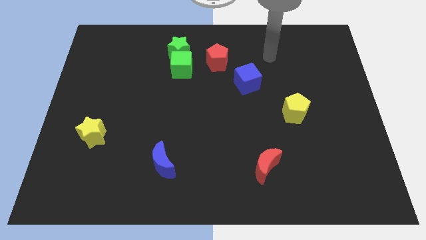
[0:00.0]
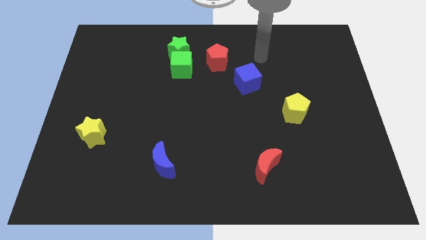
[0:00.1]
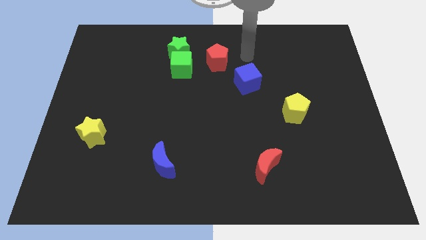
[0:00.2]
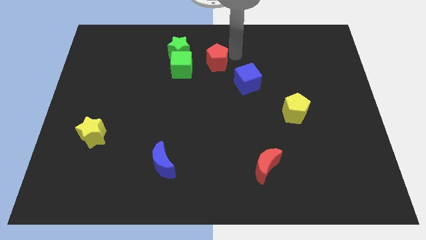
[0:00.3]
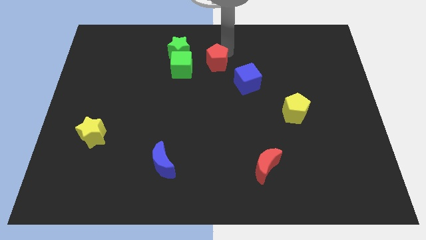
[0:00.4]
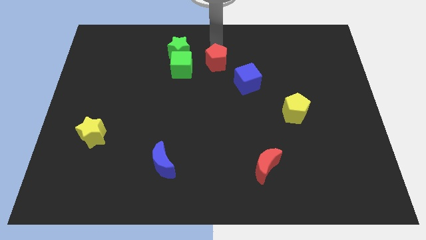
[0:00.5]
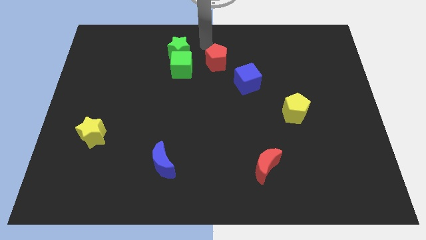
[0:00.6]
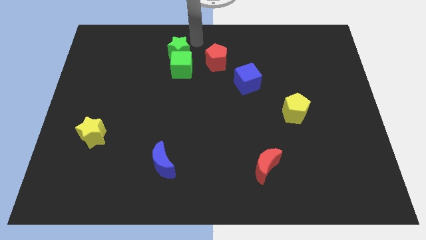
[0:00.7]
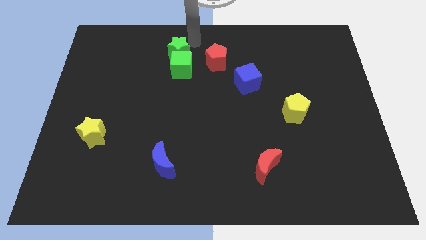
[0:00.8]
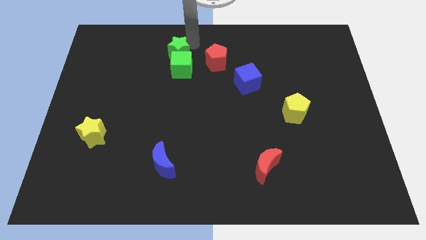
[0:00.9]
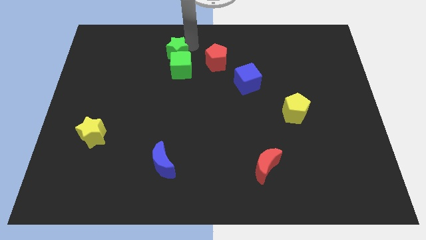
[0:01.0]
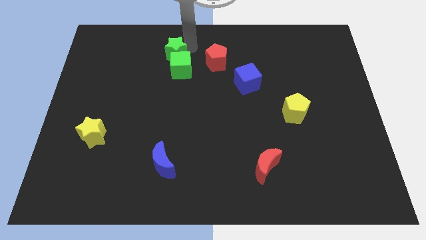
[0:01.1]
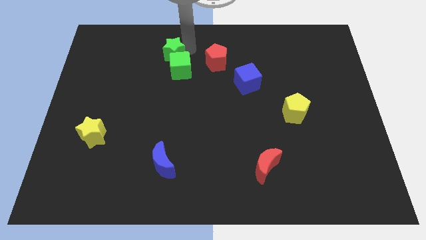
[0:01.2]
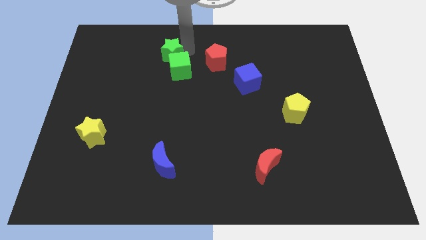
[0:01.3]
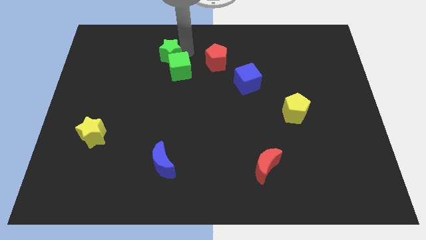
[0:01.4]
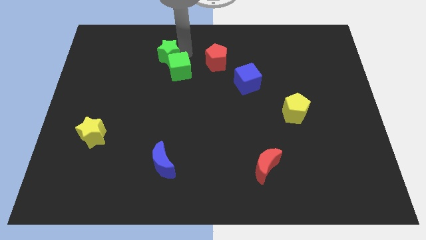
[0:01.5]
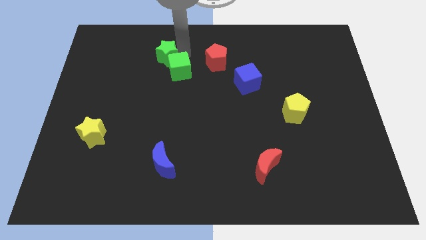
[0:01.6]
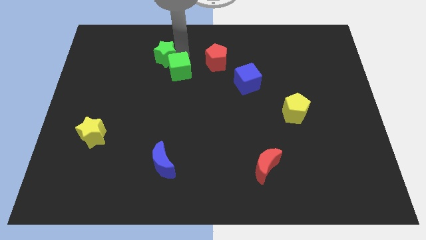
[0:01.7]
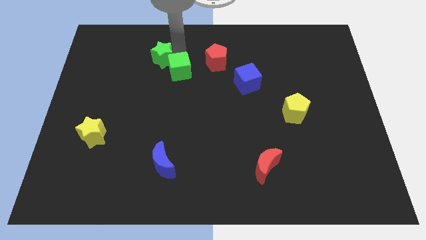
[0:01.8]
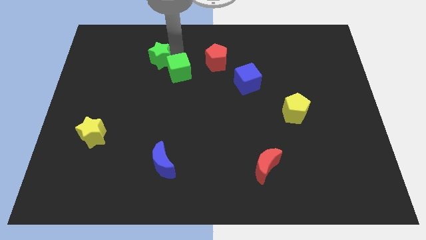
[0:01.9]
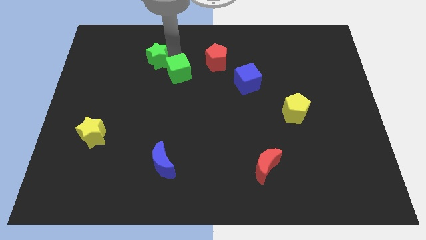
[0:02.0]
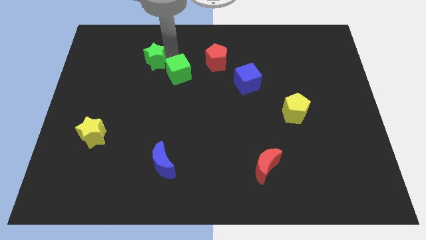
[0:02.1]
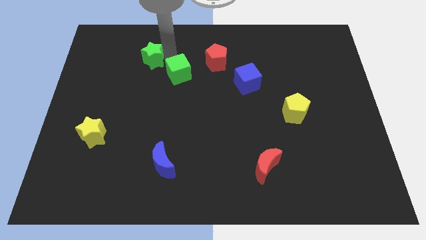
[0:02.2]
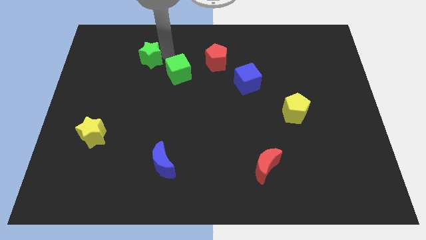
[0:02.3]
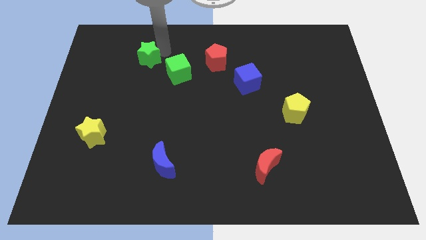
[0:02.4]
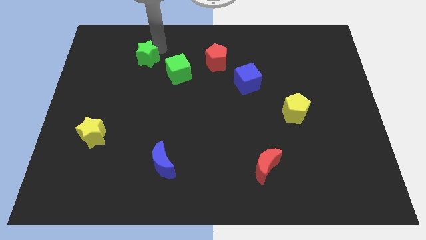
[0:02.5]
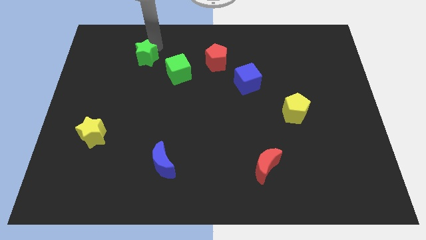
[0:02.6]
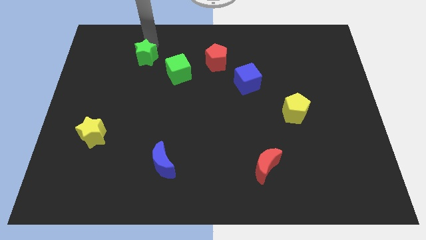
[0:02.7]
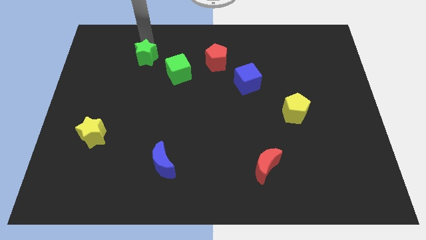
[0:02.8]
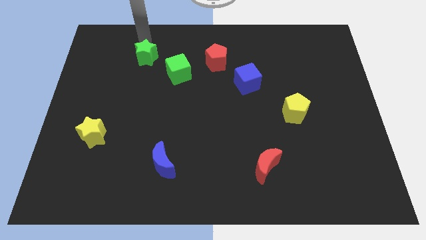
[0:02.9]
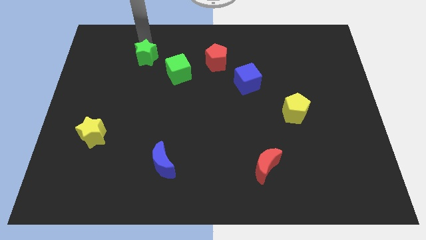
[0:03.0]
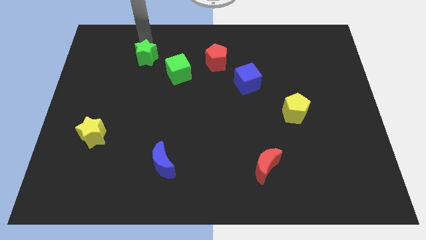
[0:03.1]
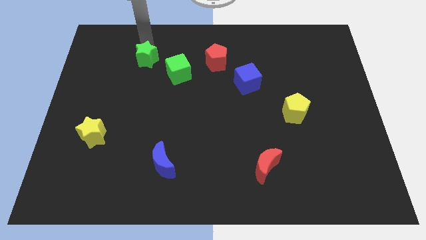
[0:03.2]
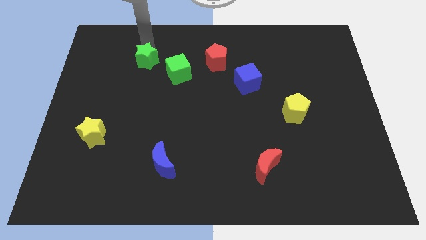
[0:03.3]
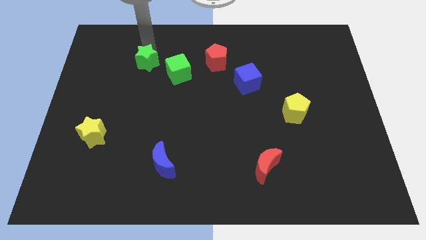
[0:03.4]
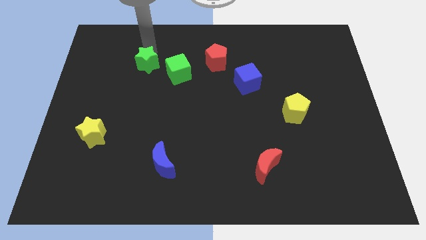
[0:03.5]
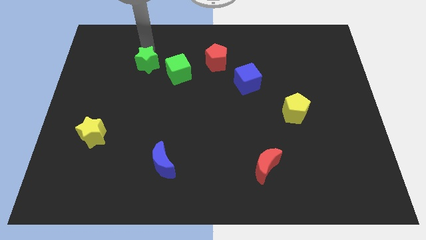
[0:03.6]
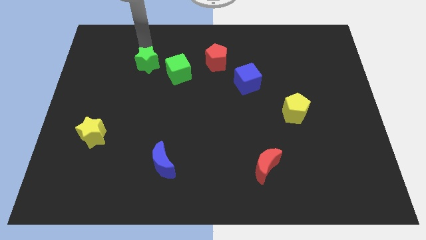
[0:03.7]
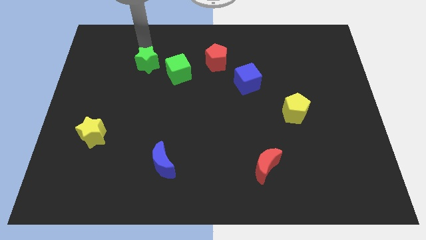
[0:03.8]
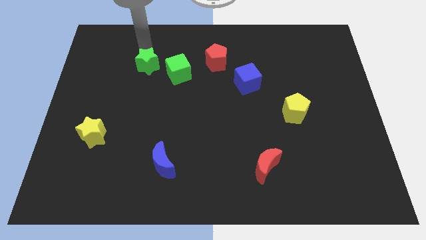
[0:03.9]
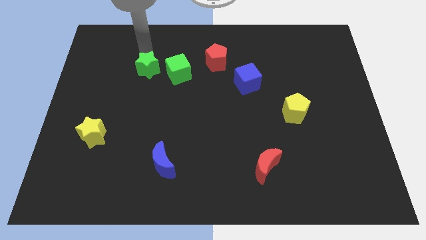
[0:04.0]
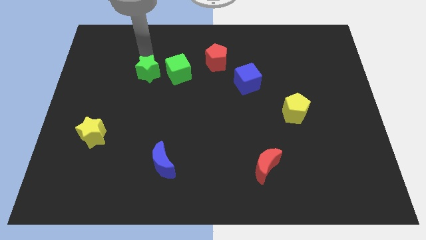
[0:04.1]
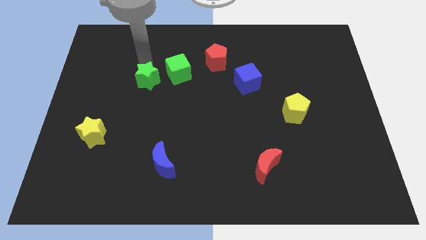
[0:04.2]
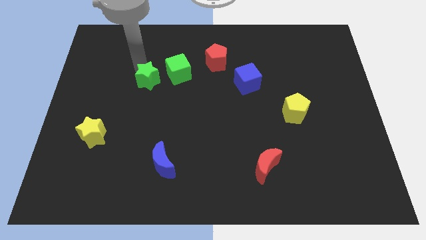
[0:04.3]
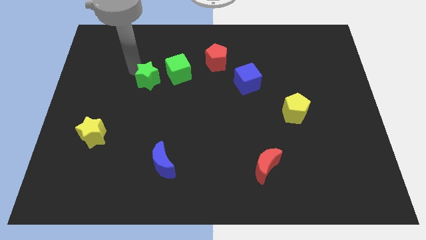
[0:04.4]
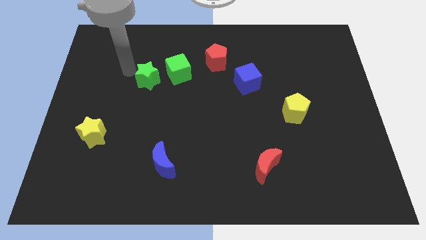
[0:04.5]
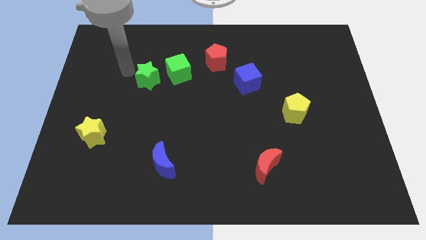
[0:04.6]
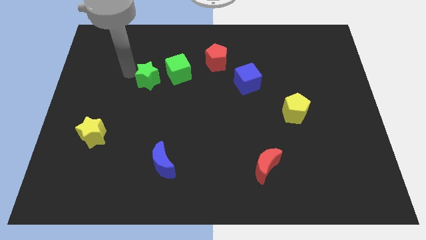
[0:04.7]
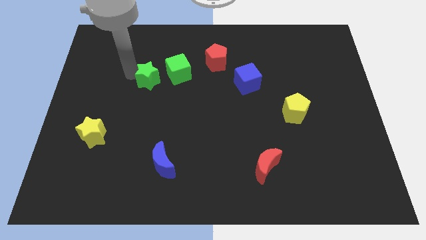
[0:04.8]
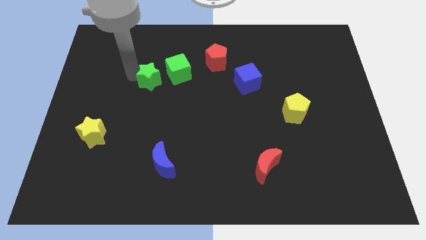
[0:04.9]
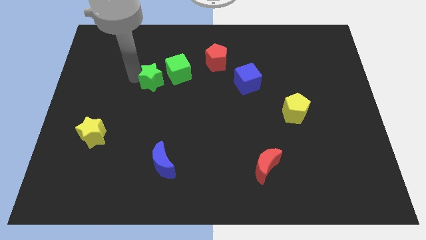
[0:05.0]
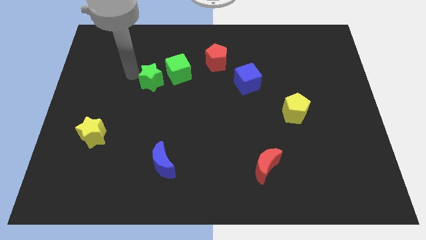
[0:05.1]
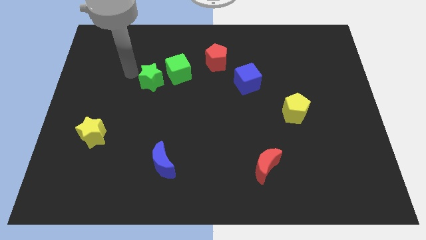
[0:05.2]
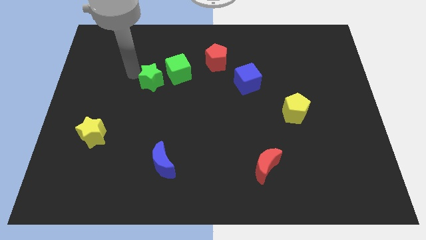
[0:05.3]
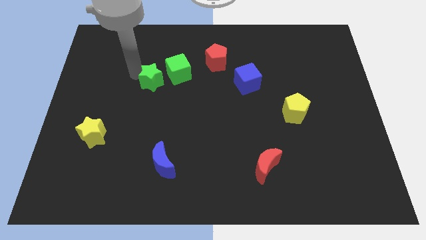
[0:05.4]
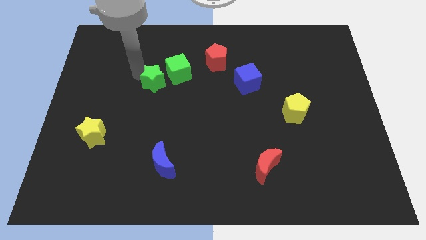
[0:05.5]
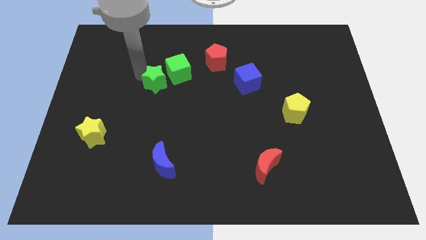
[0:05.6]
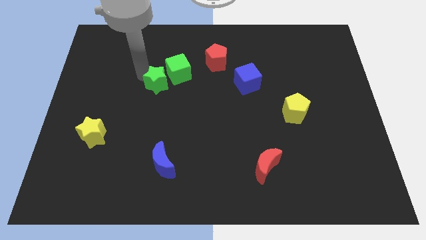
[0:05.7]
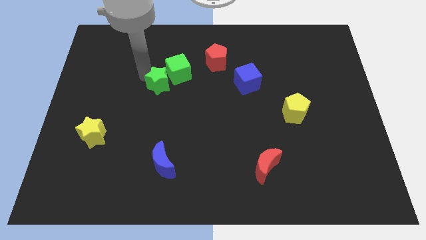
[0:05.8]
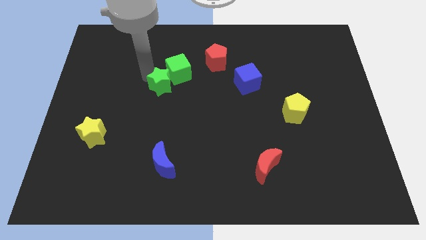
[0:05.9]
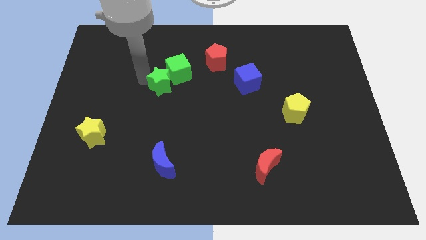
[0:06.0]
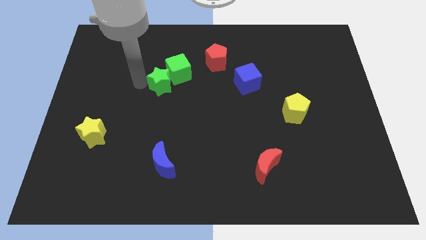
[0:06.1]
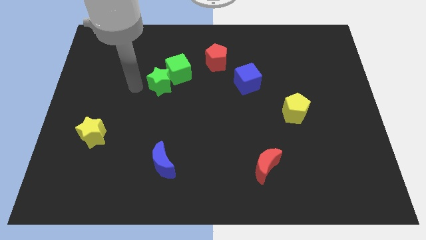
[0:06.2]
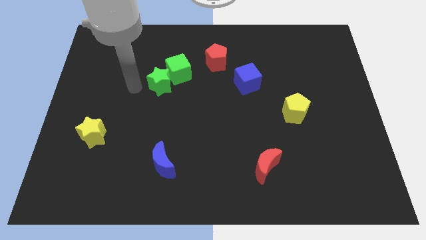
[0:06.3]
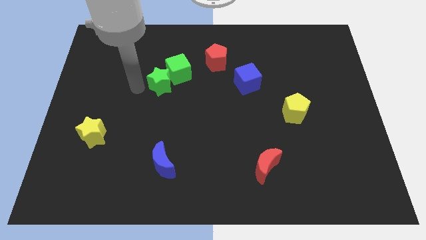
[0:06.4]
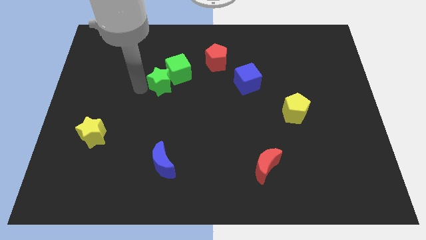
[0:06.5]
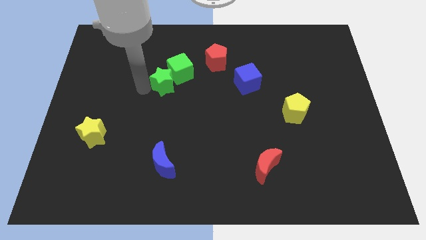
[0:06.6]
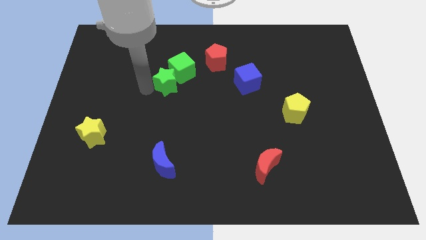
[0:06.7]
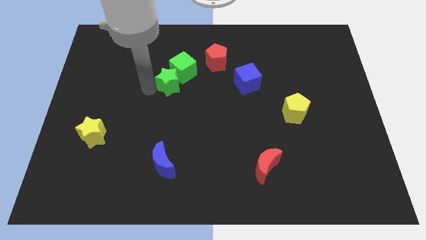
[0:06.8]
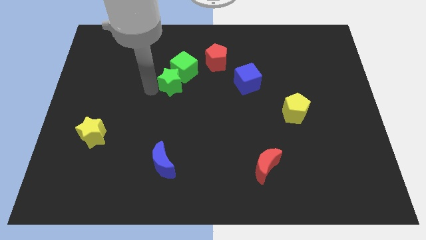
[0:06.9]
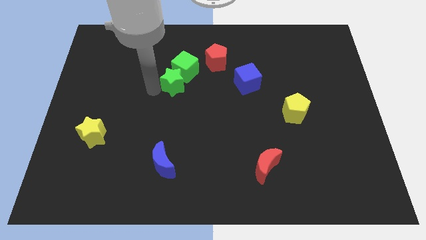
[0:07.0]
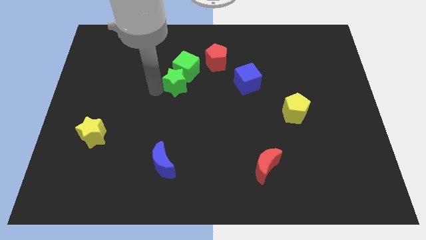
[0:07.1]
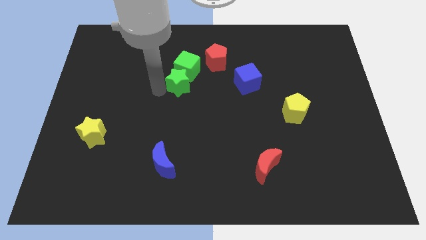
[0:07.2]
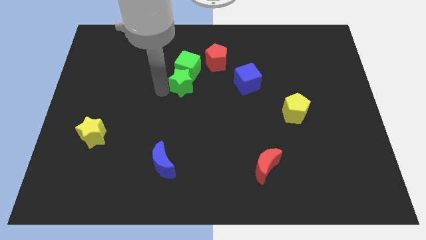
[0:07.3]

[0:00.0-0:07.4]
slide the green star just left of the blue cube
